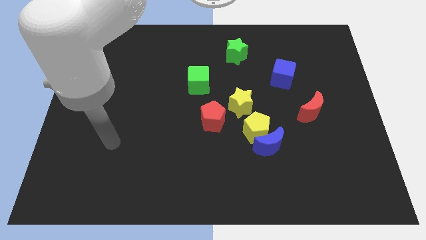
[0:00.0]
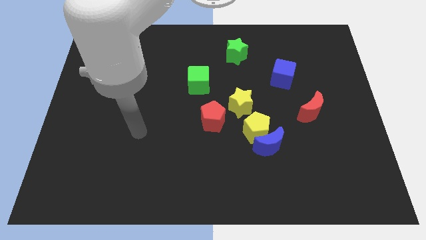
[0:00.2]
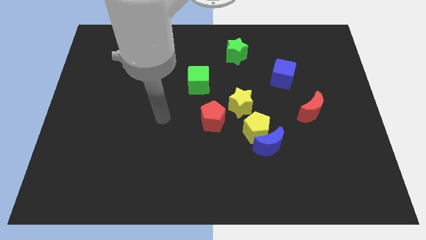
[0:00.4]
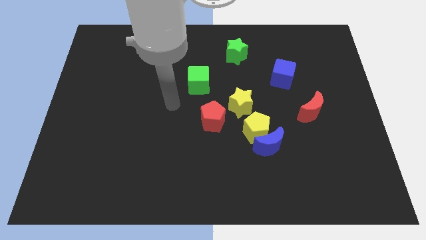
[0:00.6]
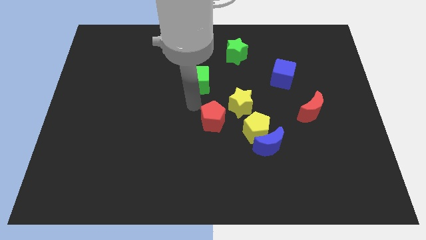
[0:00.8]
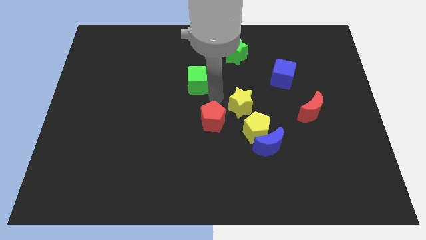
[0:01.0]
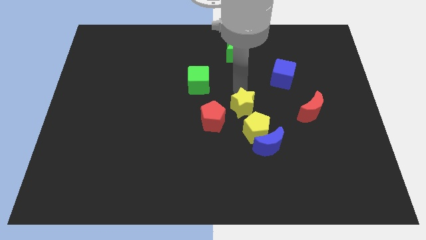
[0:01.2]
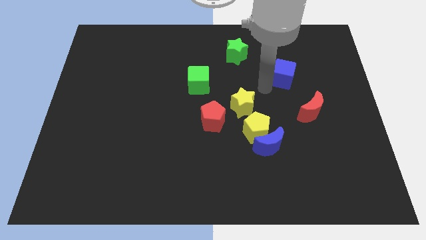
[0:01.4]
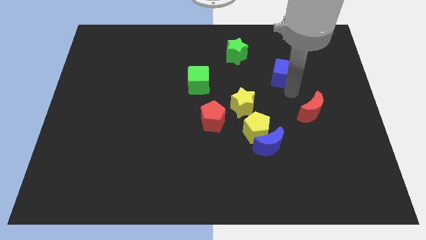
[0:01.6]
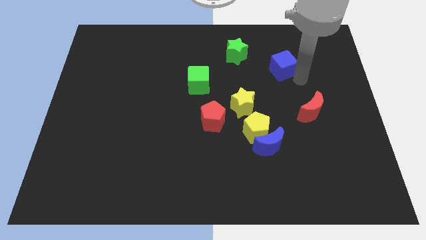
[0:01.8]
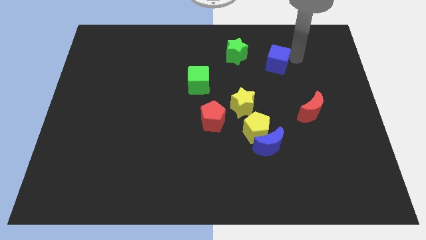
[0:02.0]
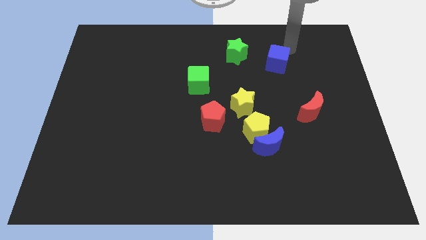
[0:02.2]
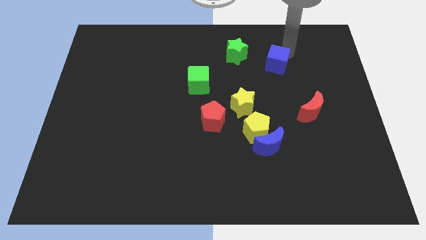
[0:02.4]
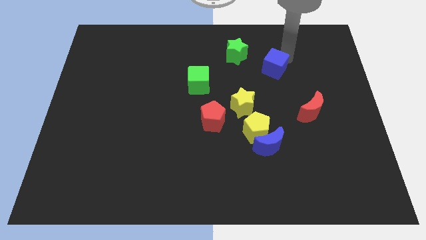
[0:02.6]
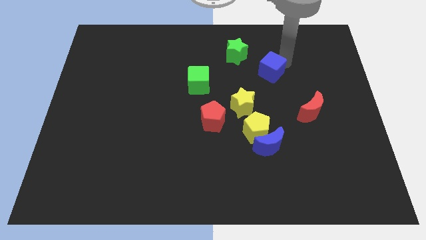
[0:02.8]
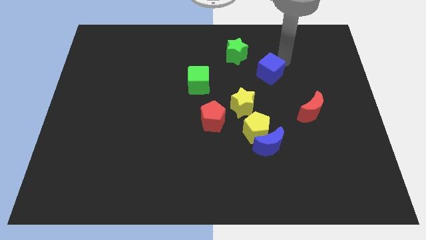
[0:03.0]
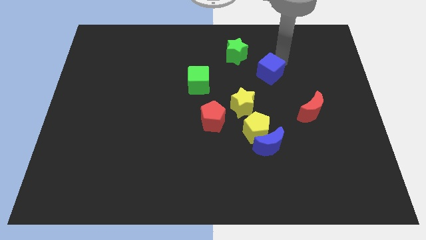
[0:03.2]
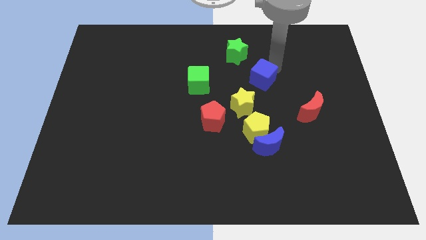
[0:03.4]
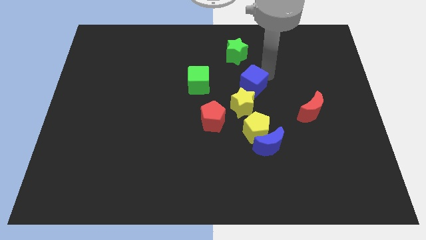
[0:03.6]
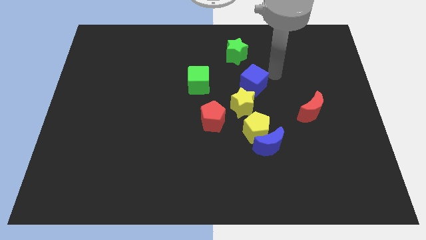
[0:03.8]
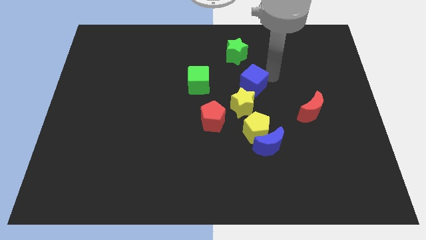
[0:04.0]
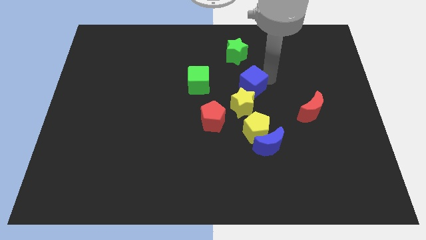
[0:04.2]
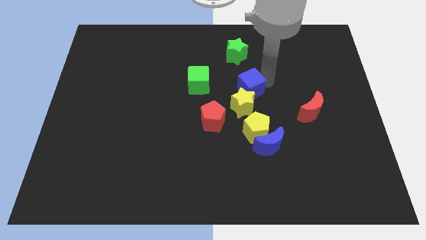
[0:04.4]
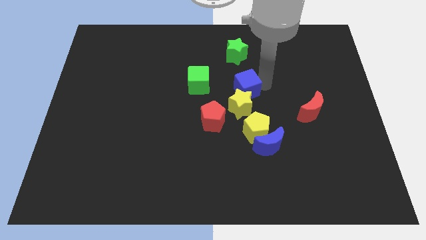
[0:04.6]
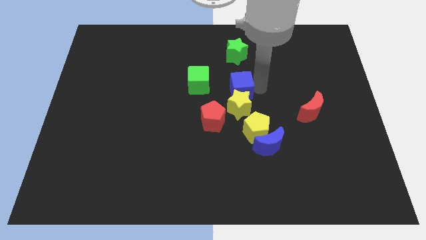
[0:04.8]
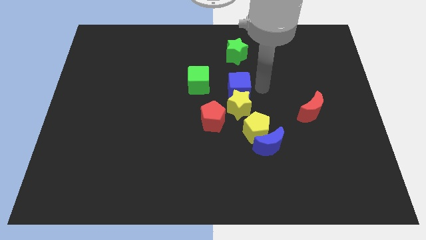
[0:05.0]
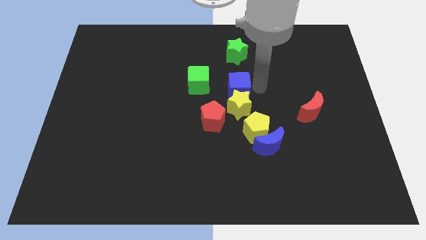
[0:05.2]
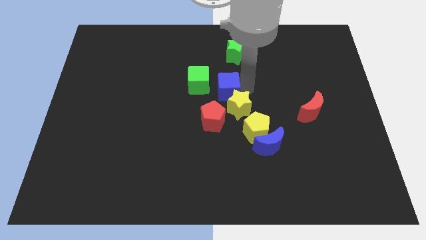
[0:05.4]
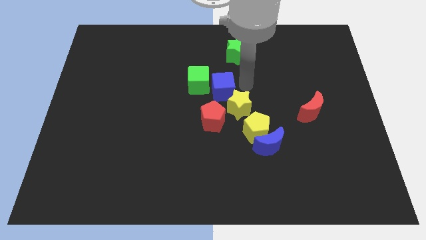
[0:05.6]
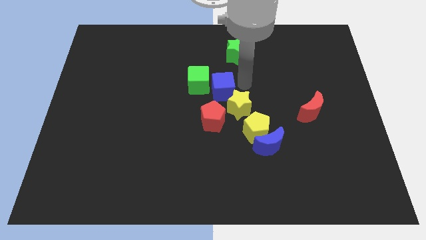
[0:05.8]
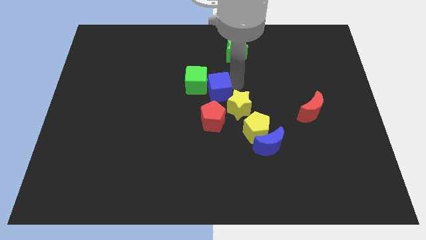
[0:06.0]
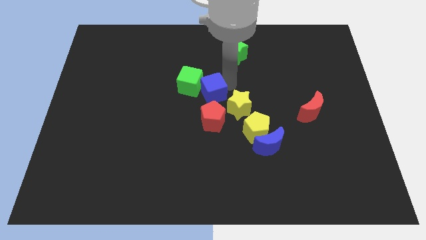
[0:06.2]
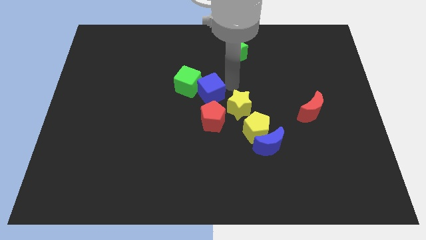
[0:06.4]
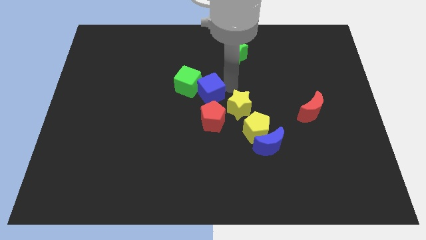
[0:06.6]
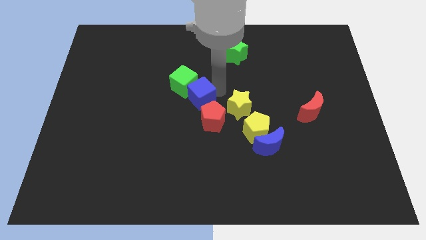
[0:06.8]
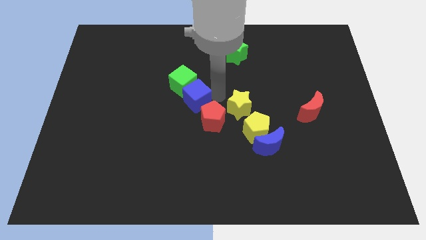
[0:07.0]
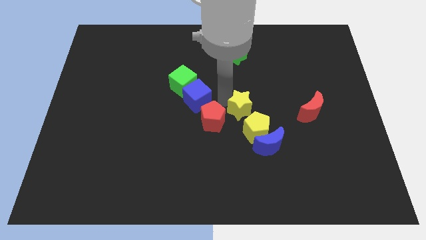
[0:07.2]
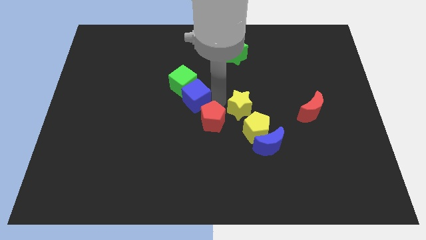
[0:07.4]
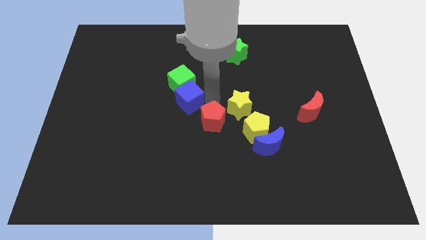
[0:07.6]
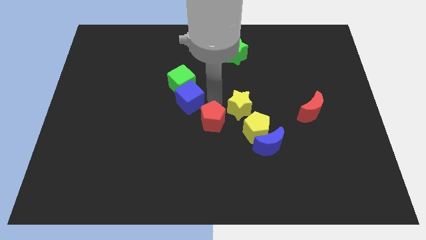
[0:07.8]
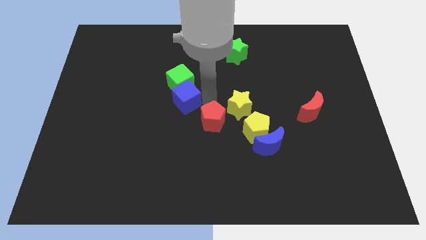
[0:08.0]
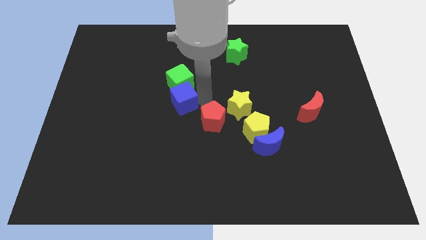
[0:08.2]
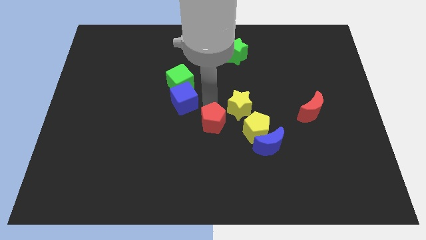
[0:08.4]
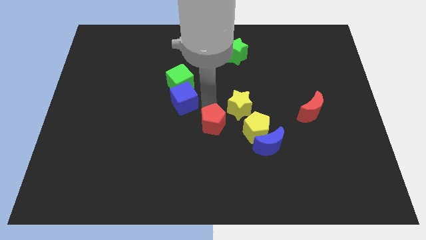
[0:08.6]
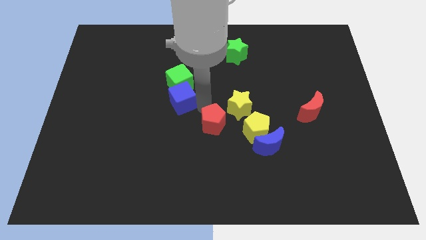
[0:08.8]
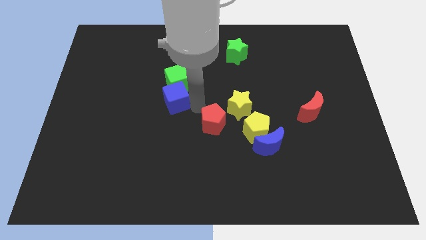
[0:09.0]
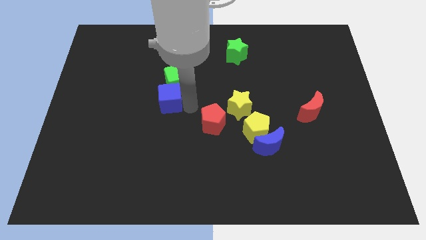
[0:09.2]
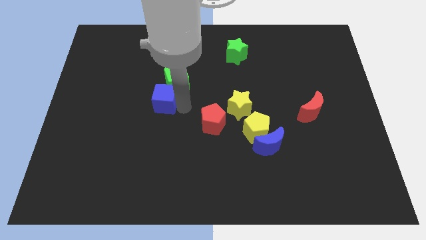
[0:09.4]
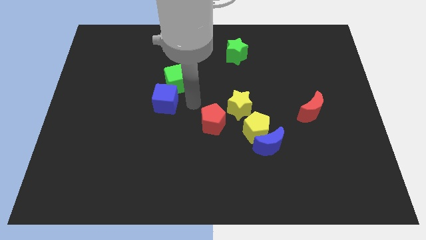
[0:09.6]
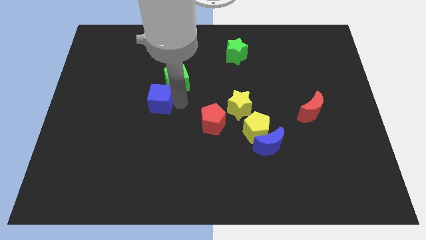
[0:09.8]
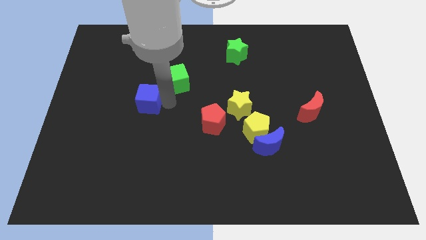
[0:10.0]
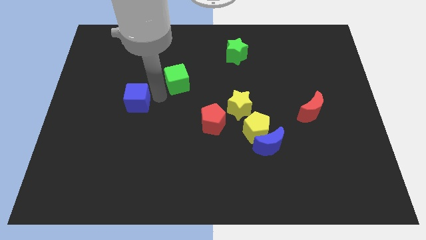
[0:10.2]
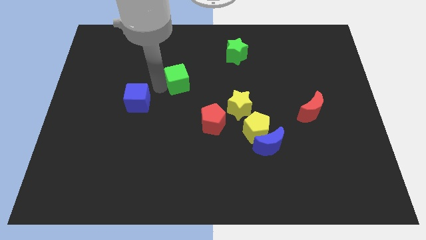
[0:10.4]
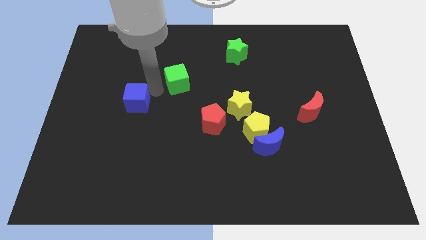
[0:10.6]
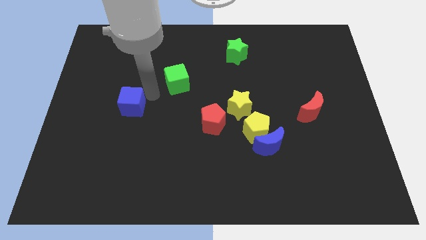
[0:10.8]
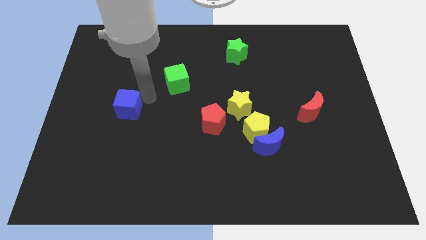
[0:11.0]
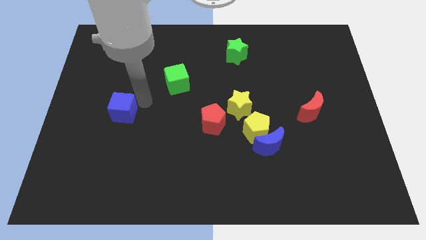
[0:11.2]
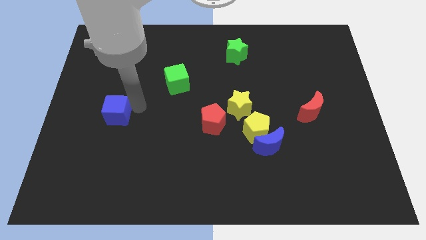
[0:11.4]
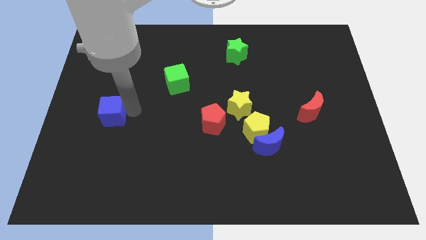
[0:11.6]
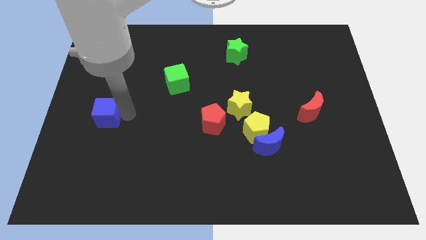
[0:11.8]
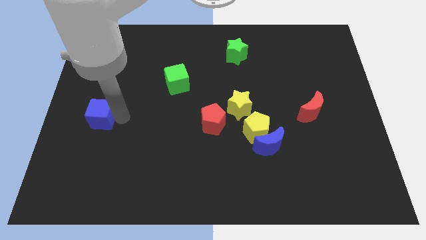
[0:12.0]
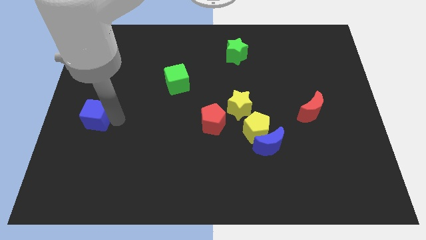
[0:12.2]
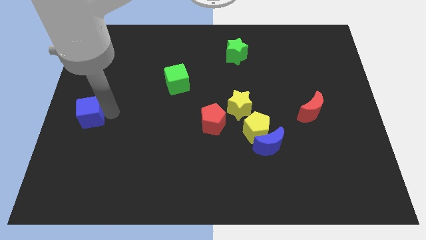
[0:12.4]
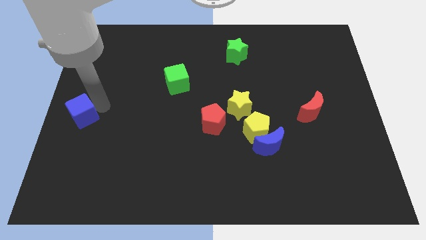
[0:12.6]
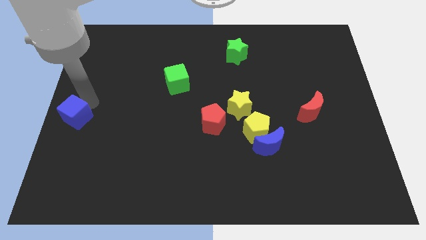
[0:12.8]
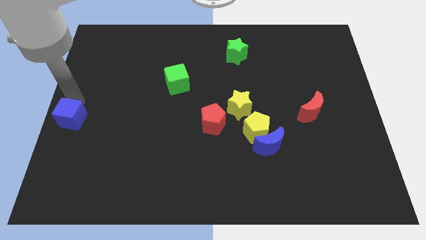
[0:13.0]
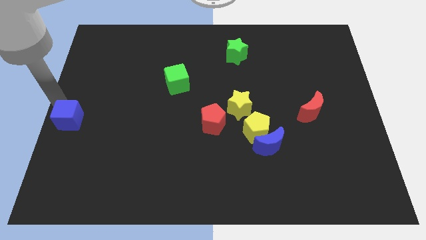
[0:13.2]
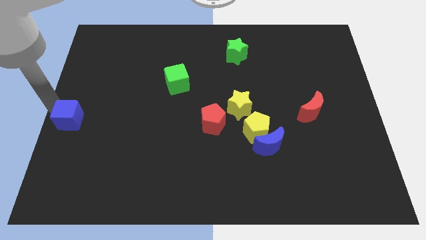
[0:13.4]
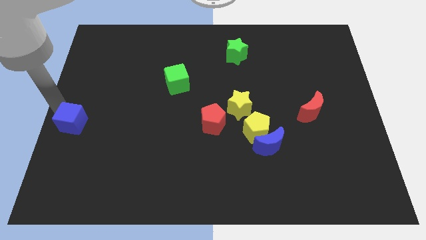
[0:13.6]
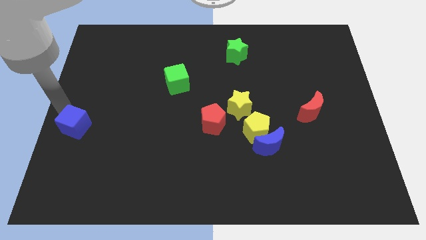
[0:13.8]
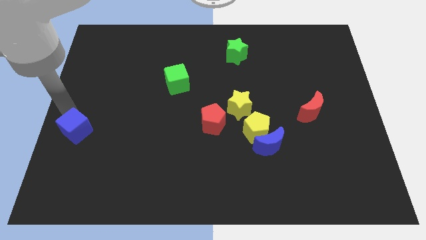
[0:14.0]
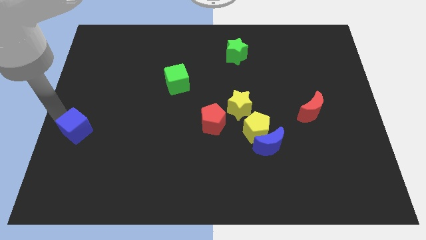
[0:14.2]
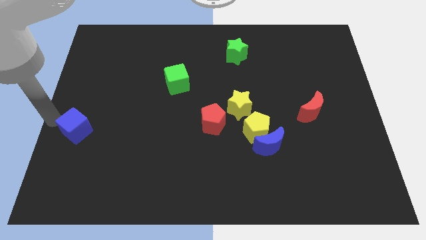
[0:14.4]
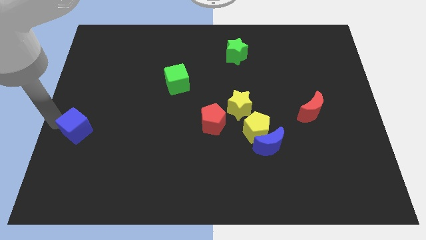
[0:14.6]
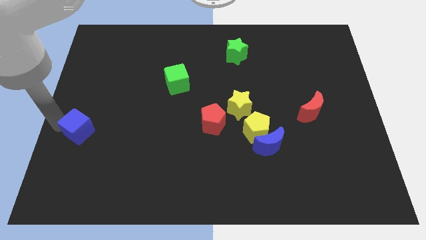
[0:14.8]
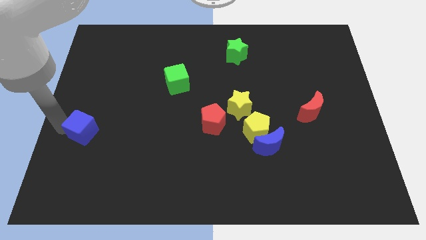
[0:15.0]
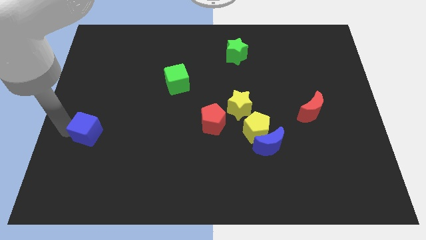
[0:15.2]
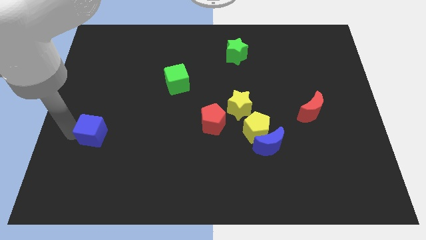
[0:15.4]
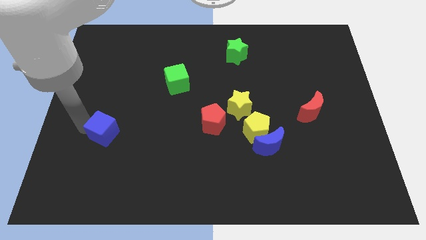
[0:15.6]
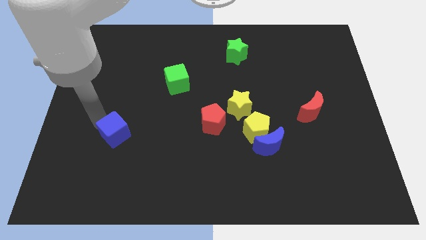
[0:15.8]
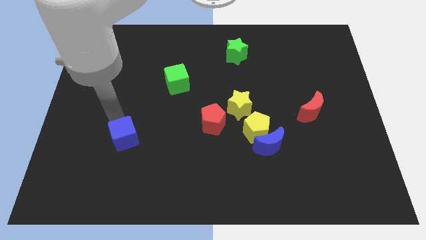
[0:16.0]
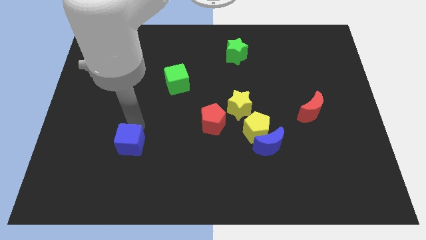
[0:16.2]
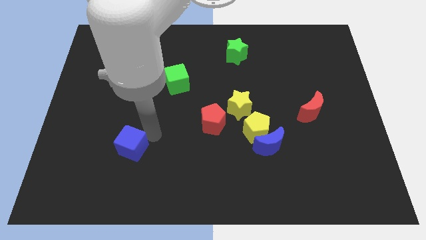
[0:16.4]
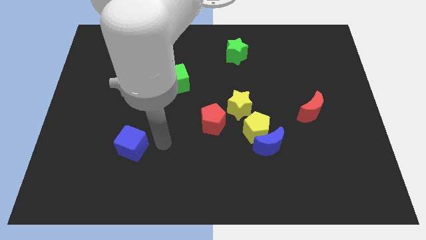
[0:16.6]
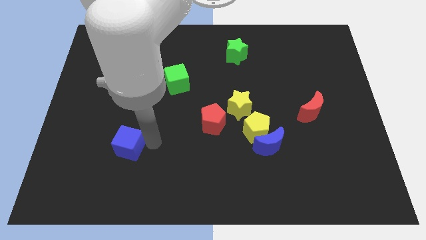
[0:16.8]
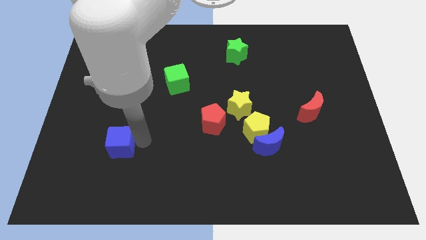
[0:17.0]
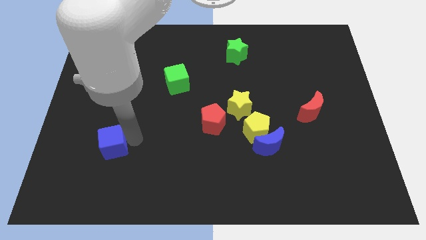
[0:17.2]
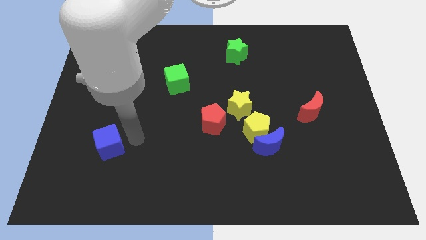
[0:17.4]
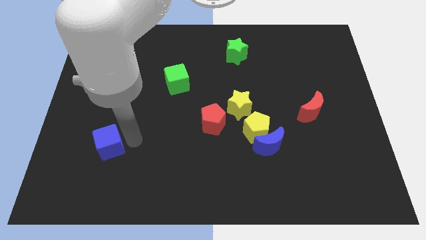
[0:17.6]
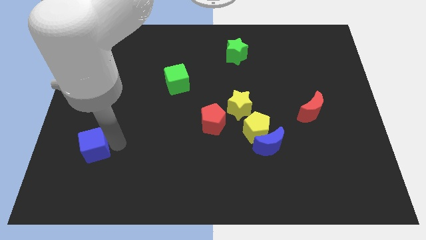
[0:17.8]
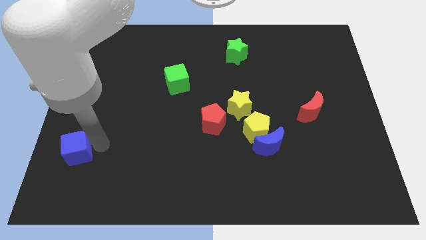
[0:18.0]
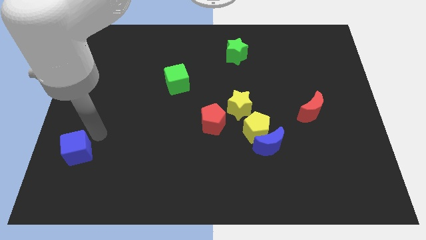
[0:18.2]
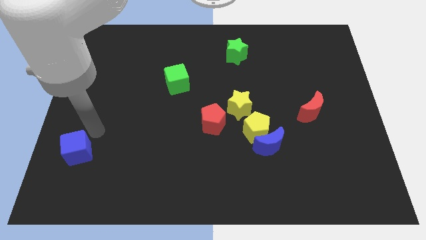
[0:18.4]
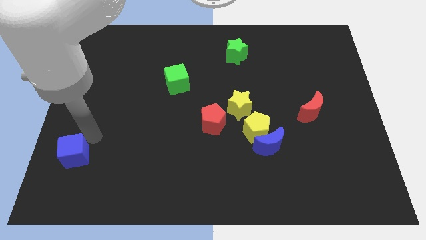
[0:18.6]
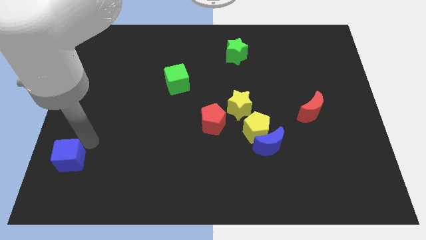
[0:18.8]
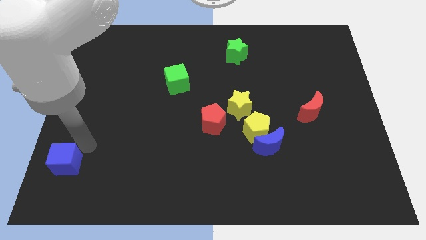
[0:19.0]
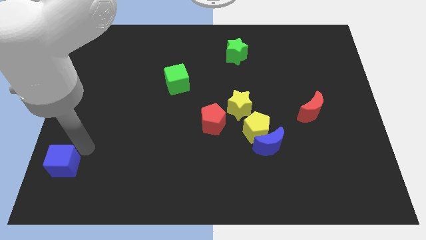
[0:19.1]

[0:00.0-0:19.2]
slide the blue cube to the lower left corner
